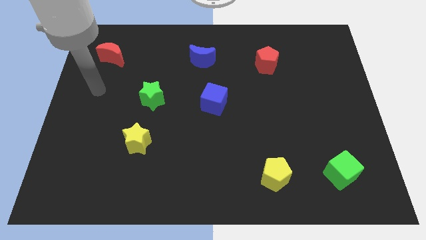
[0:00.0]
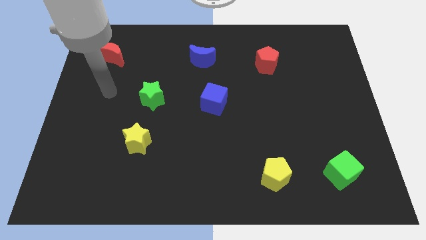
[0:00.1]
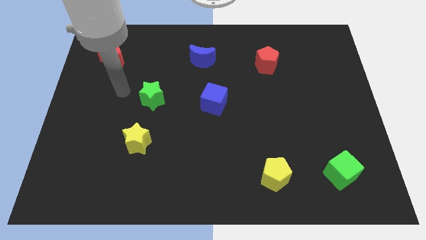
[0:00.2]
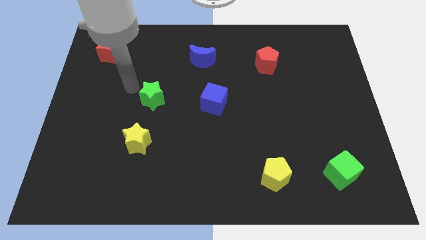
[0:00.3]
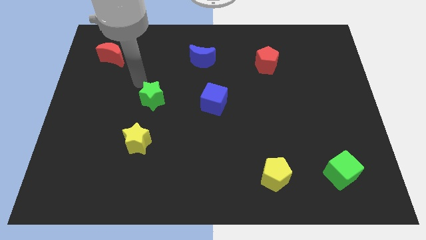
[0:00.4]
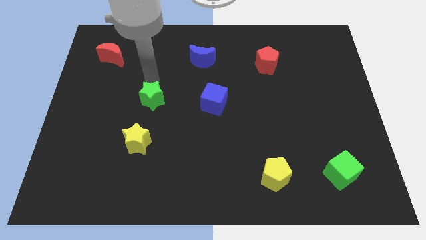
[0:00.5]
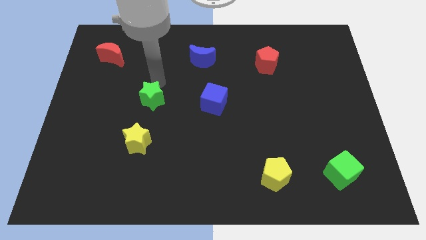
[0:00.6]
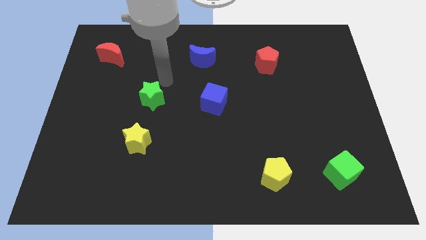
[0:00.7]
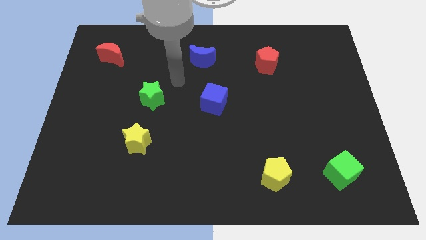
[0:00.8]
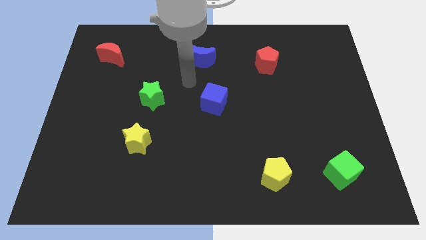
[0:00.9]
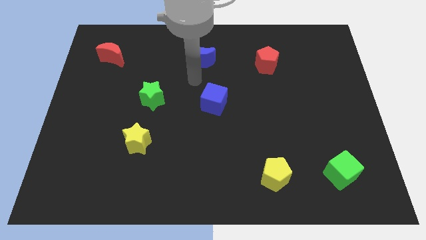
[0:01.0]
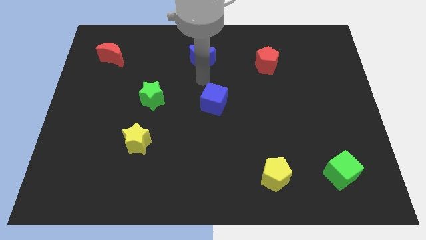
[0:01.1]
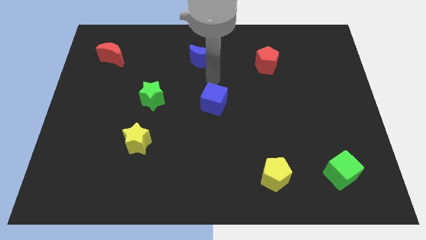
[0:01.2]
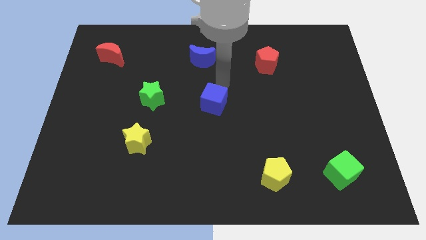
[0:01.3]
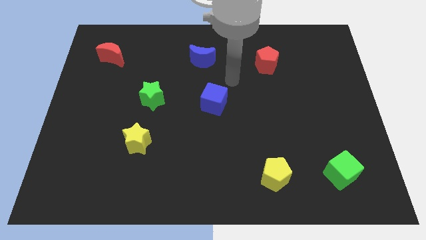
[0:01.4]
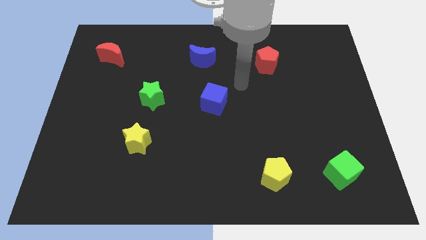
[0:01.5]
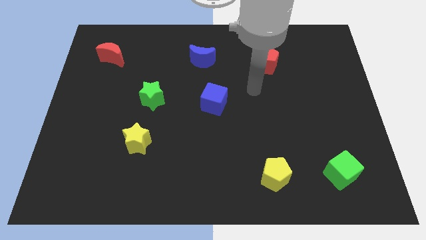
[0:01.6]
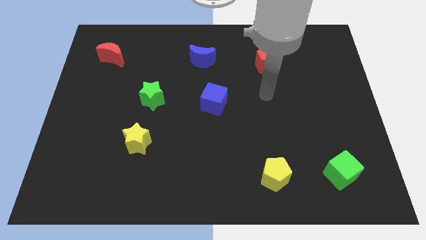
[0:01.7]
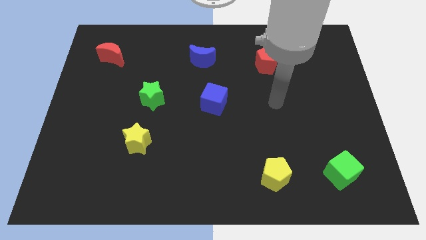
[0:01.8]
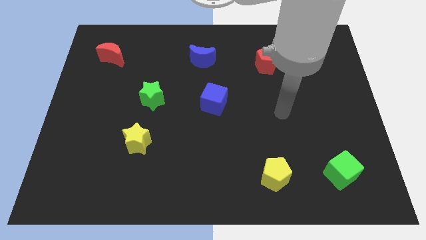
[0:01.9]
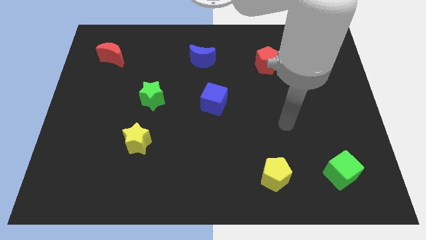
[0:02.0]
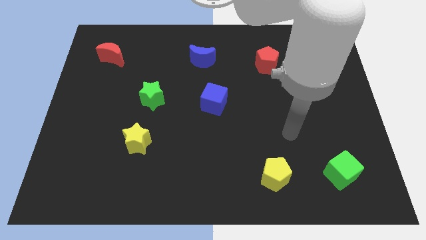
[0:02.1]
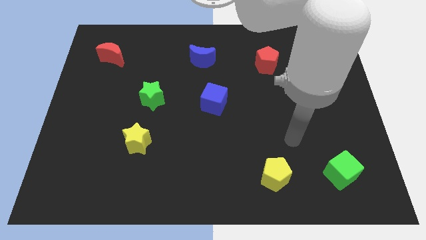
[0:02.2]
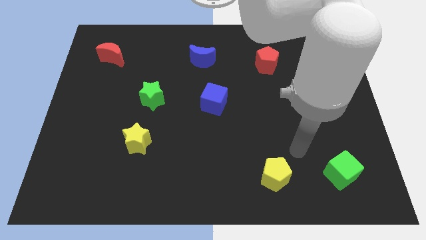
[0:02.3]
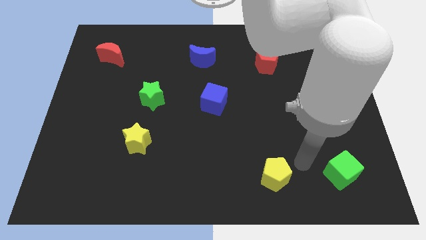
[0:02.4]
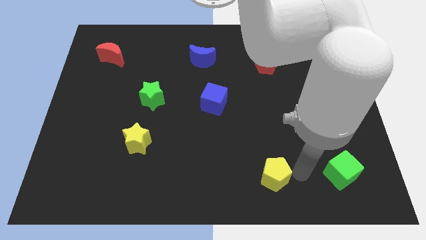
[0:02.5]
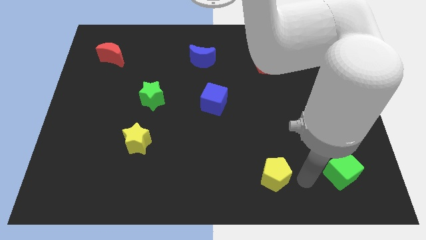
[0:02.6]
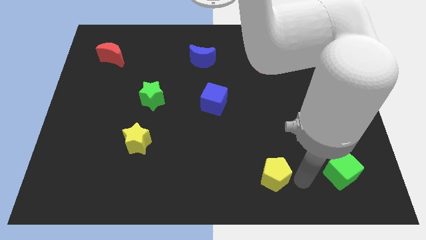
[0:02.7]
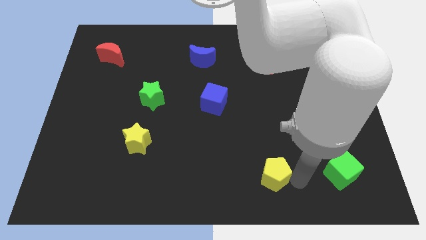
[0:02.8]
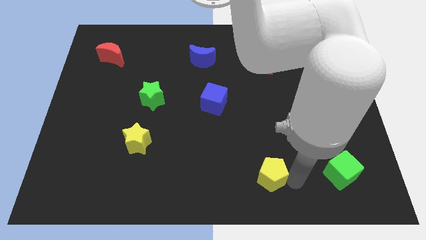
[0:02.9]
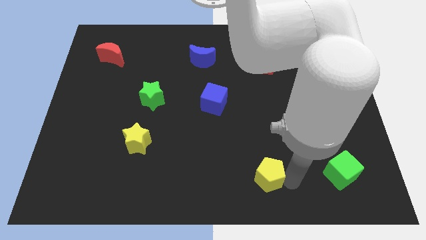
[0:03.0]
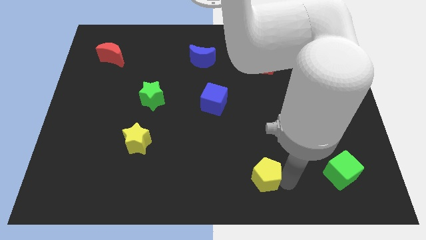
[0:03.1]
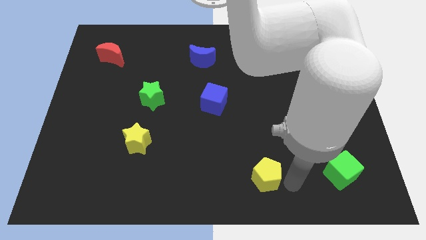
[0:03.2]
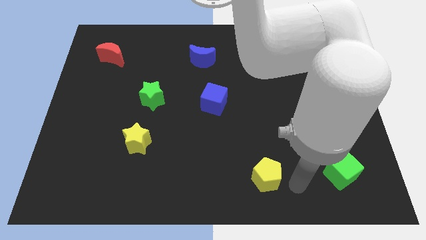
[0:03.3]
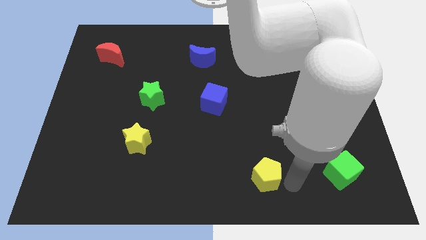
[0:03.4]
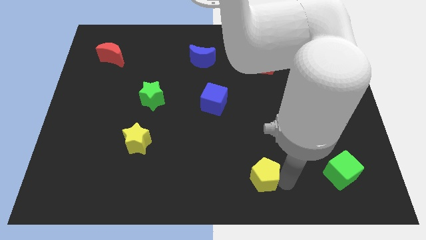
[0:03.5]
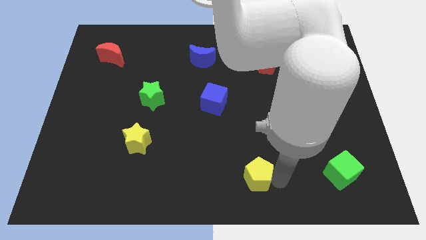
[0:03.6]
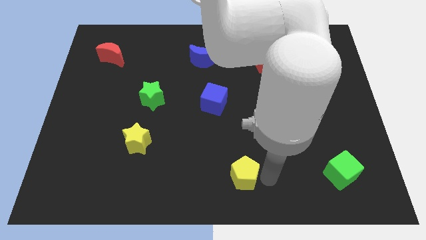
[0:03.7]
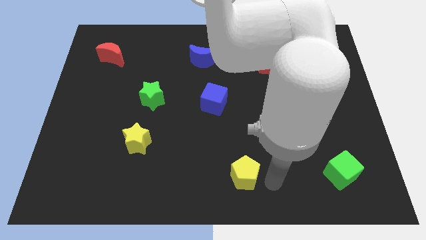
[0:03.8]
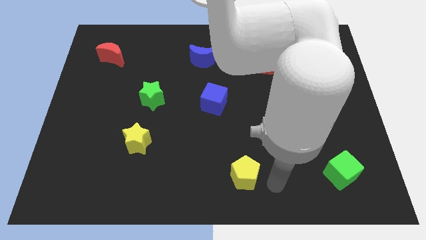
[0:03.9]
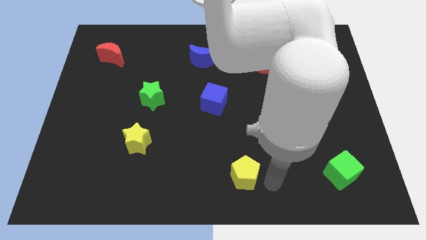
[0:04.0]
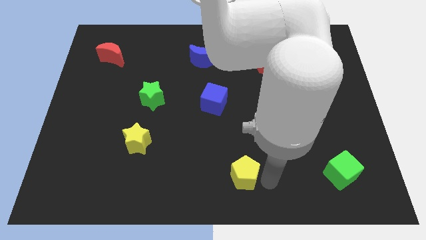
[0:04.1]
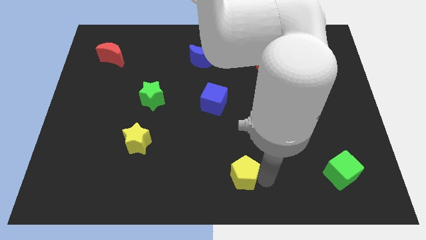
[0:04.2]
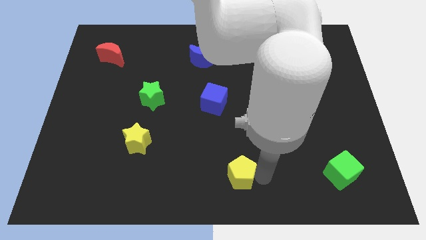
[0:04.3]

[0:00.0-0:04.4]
slightly push the yellow pentagon to the left

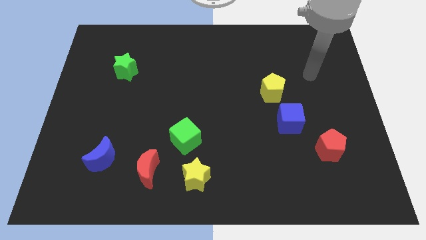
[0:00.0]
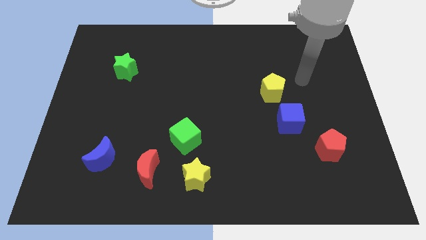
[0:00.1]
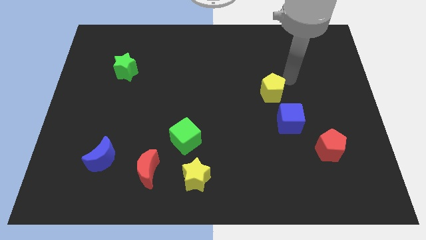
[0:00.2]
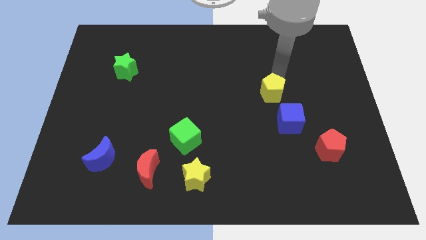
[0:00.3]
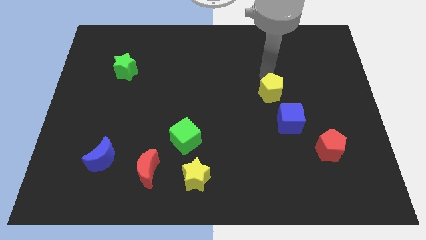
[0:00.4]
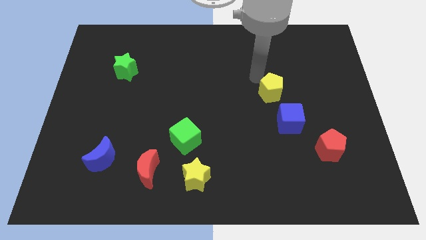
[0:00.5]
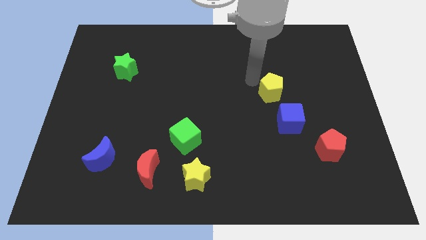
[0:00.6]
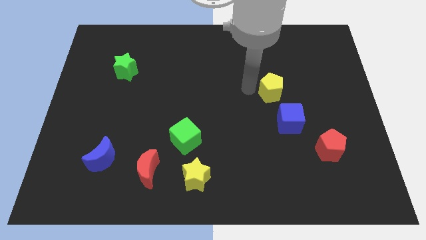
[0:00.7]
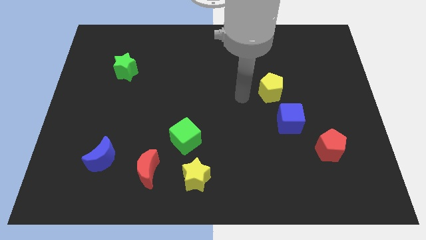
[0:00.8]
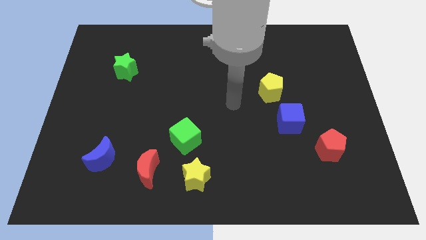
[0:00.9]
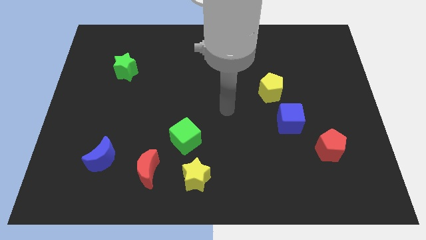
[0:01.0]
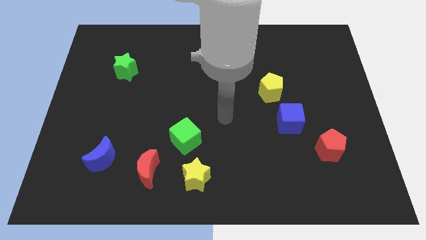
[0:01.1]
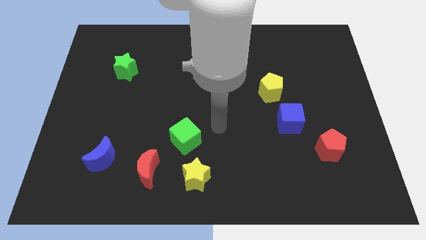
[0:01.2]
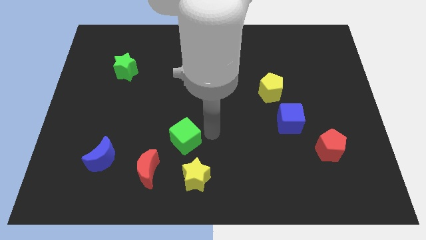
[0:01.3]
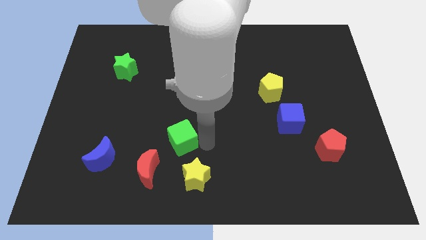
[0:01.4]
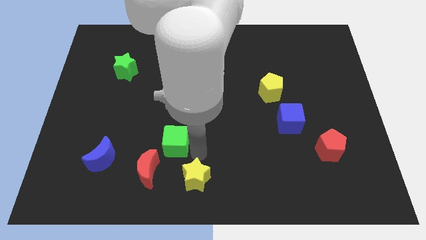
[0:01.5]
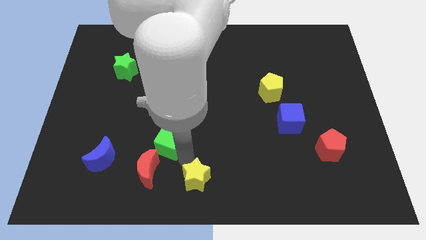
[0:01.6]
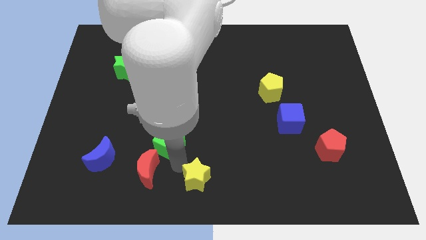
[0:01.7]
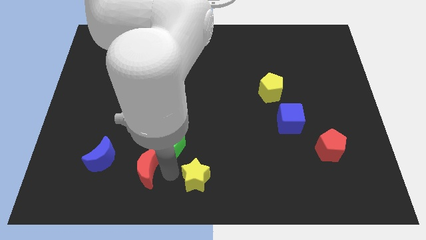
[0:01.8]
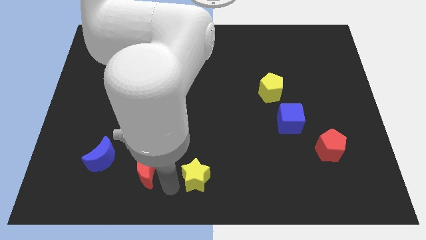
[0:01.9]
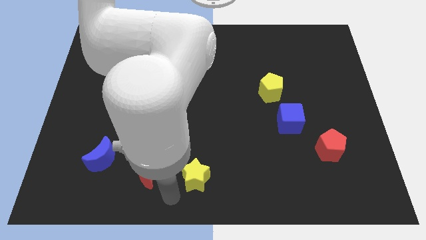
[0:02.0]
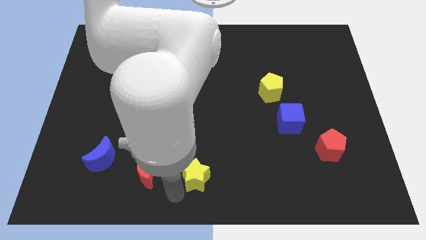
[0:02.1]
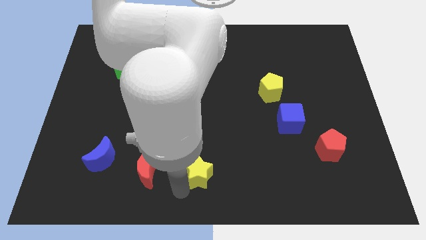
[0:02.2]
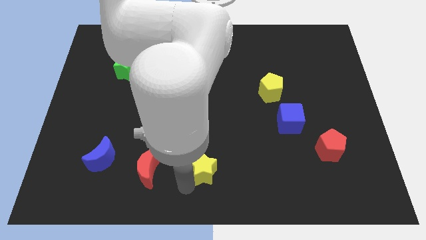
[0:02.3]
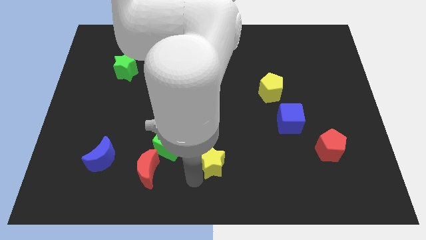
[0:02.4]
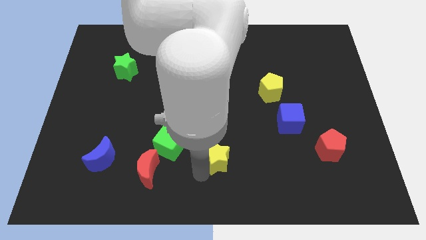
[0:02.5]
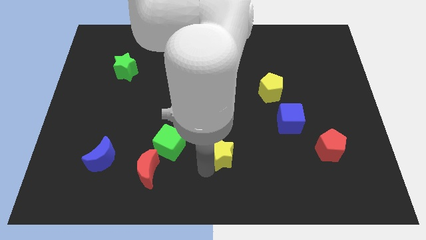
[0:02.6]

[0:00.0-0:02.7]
push the yellow star upwards and then to the right a little bit

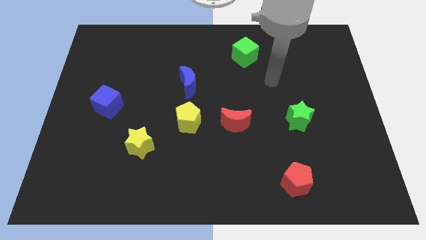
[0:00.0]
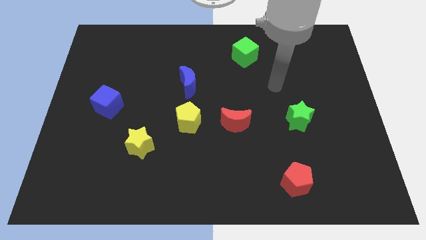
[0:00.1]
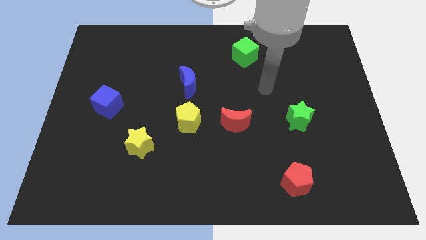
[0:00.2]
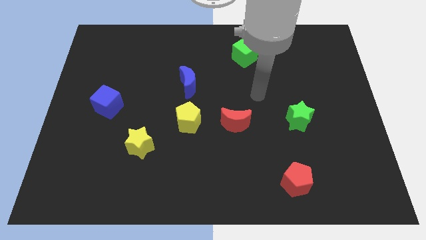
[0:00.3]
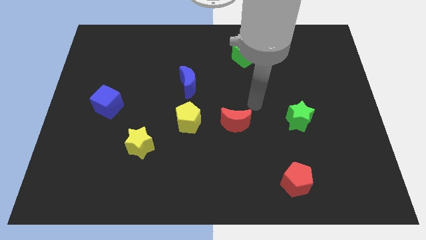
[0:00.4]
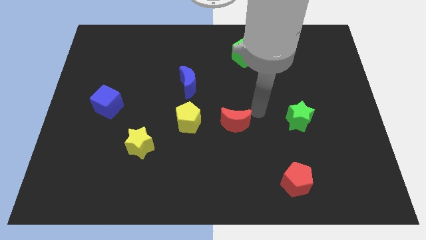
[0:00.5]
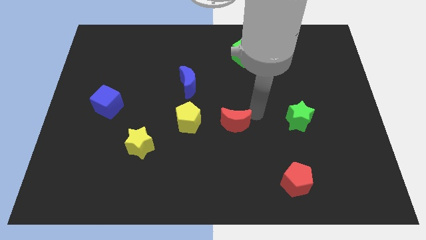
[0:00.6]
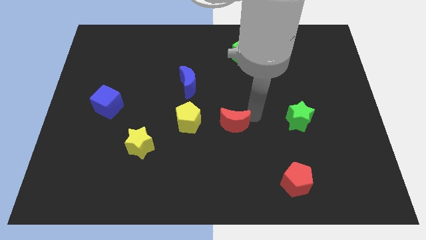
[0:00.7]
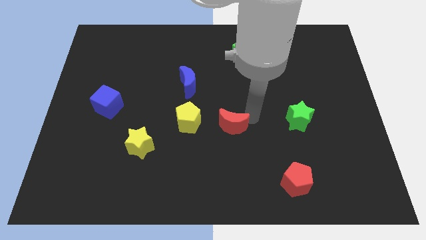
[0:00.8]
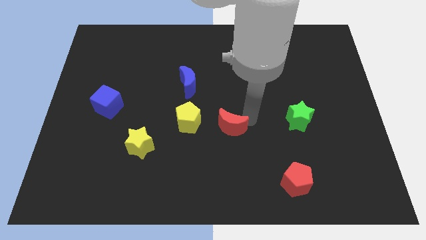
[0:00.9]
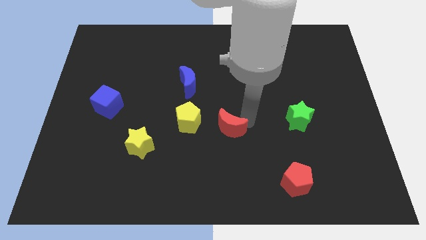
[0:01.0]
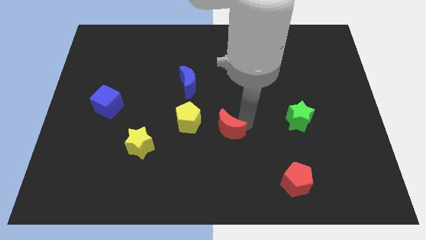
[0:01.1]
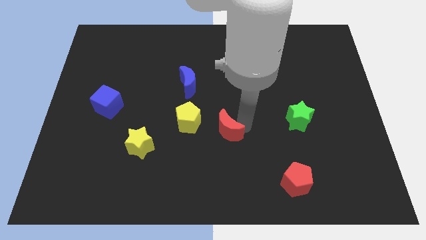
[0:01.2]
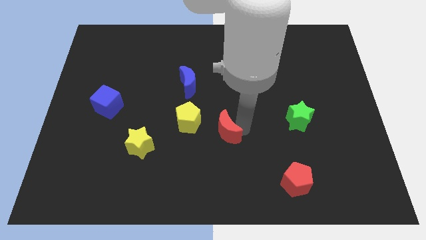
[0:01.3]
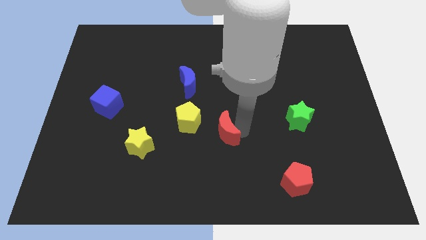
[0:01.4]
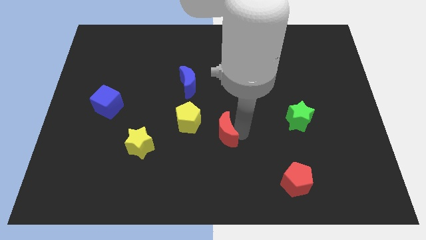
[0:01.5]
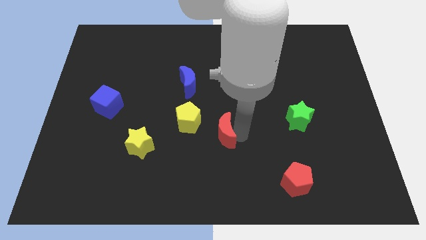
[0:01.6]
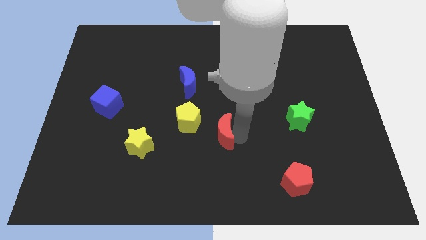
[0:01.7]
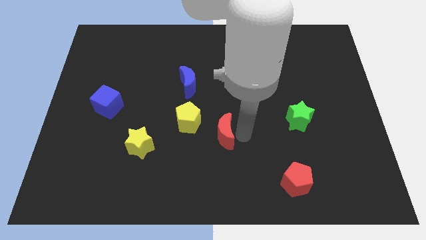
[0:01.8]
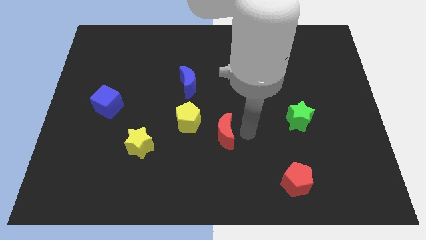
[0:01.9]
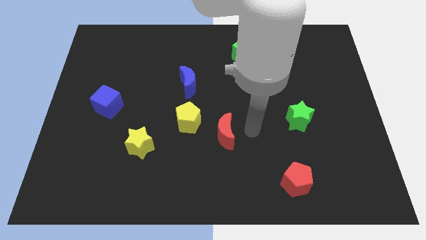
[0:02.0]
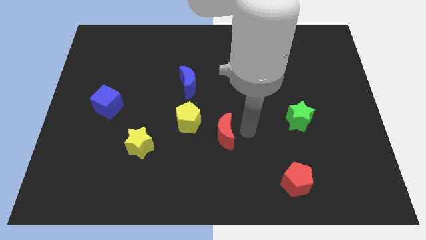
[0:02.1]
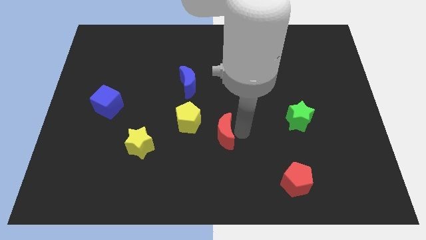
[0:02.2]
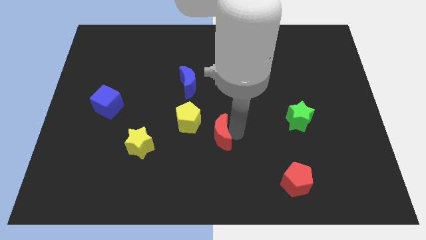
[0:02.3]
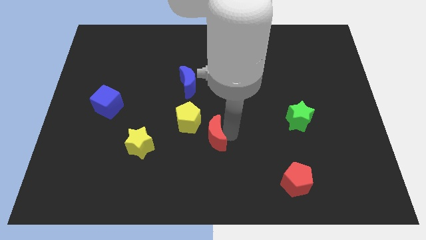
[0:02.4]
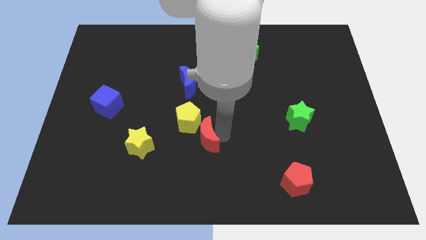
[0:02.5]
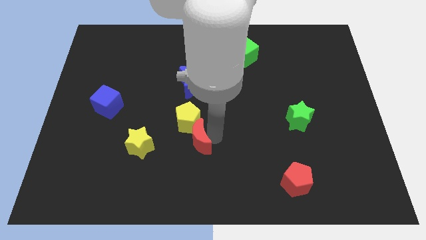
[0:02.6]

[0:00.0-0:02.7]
push the red moon left a little bit
